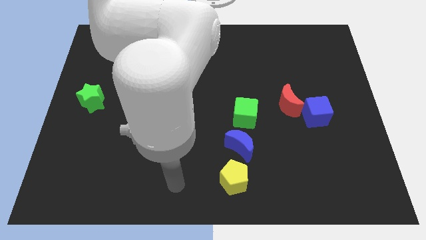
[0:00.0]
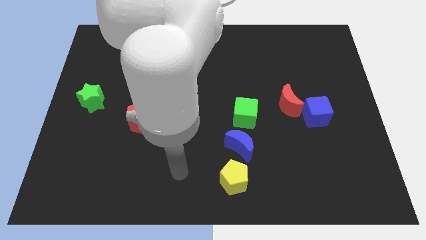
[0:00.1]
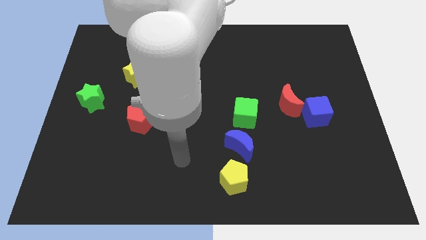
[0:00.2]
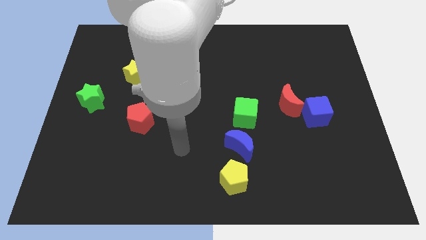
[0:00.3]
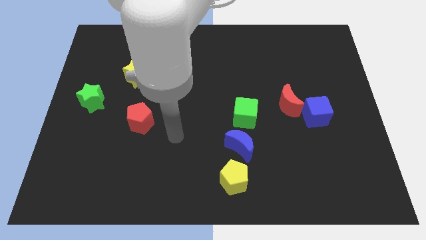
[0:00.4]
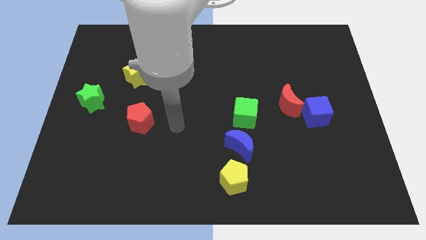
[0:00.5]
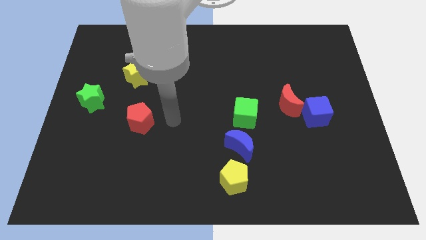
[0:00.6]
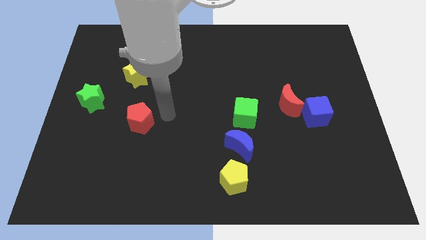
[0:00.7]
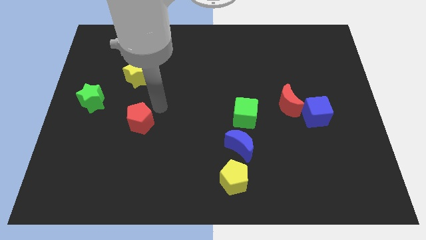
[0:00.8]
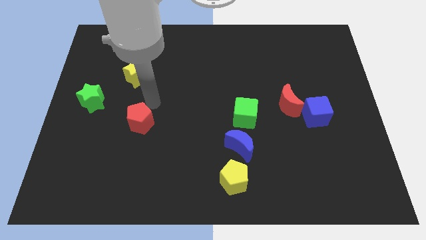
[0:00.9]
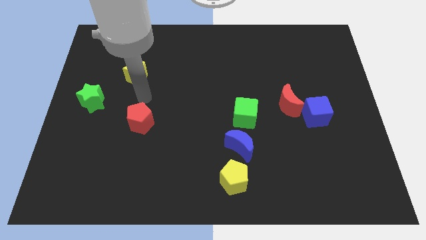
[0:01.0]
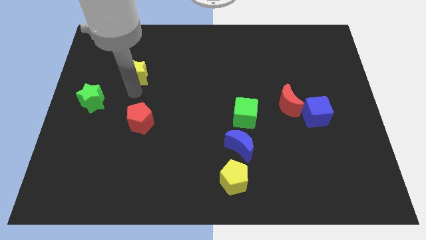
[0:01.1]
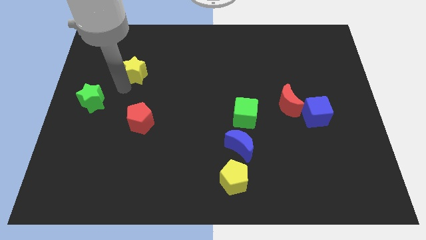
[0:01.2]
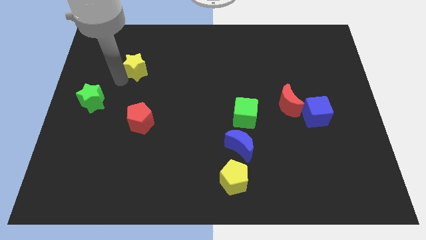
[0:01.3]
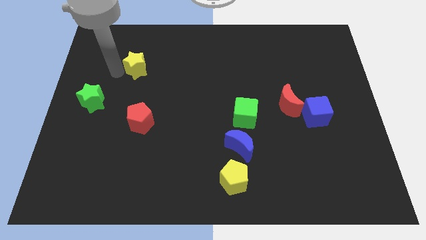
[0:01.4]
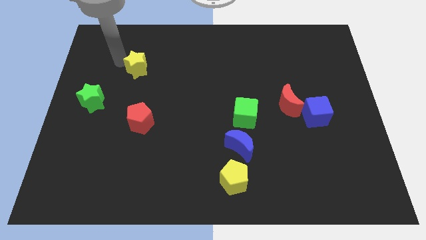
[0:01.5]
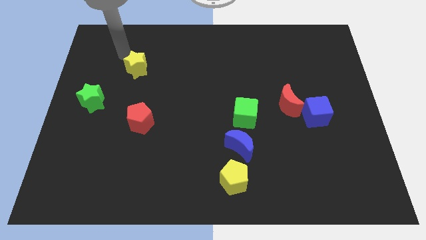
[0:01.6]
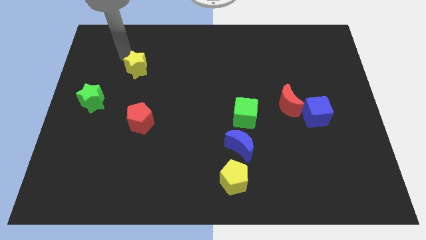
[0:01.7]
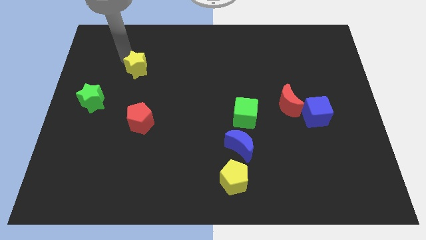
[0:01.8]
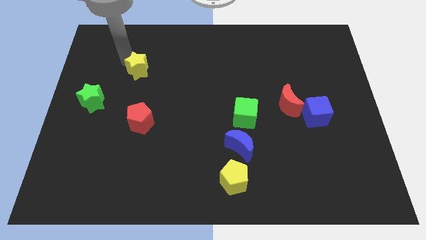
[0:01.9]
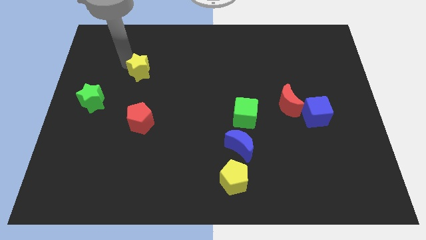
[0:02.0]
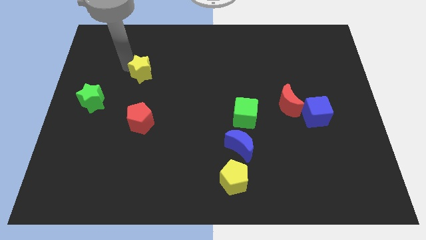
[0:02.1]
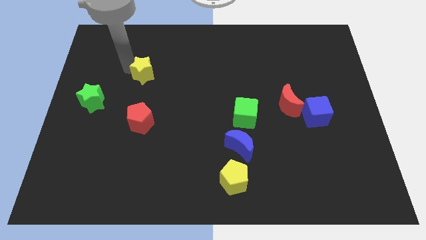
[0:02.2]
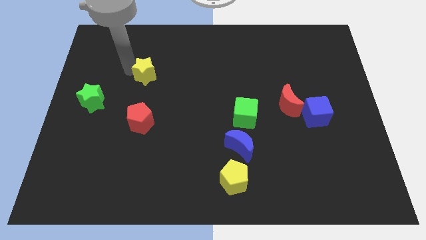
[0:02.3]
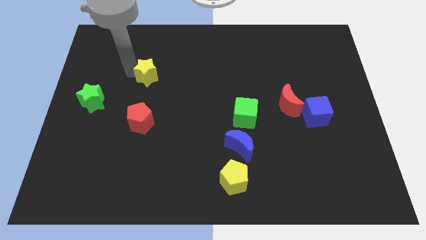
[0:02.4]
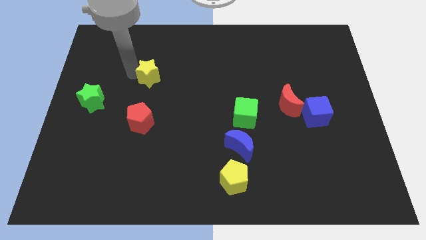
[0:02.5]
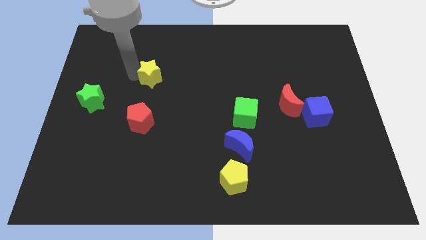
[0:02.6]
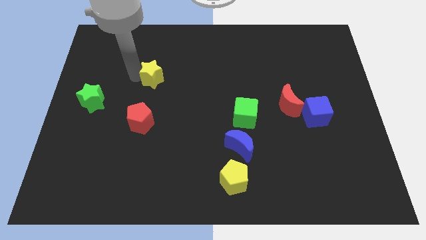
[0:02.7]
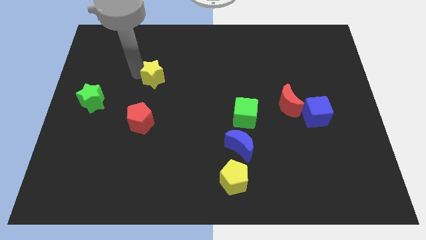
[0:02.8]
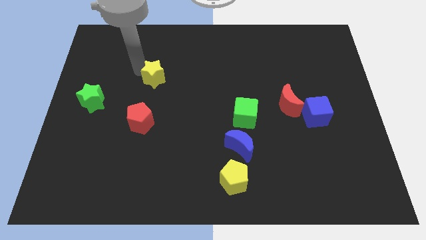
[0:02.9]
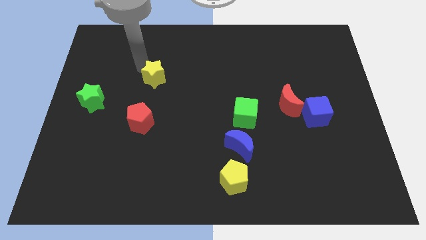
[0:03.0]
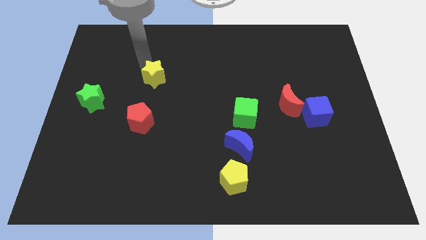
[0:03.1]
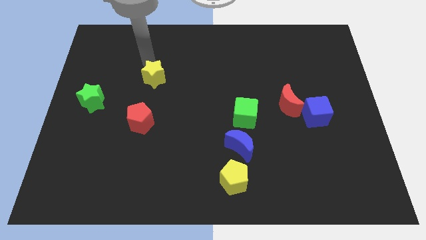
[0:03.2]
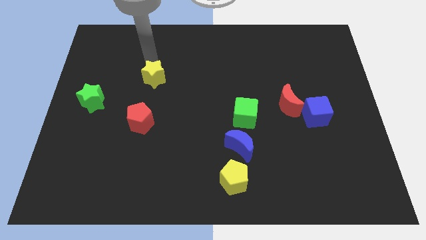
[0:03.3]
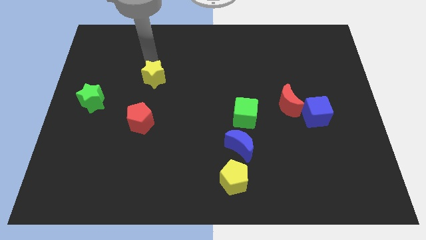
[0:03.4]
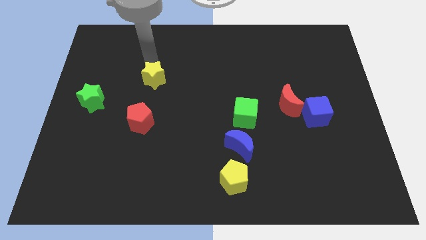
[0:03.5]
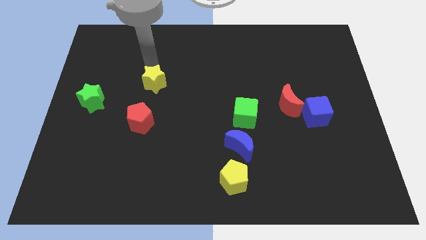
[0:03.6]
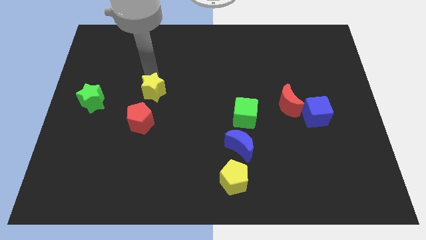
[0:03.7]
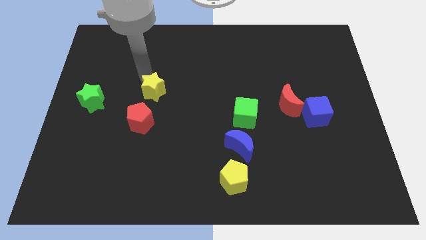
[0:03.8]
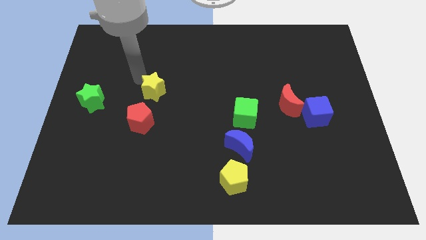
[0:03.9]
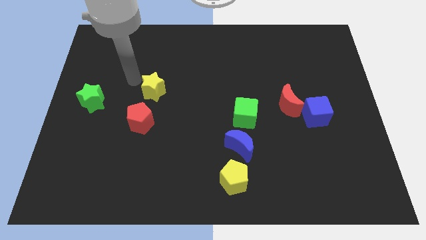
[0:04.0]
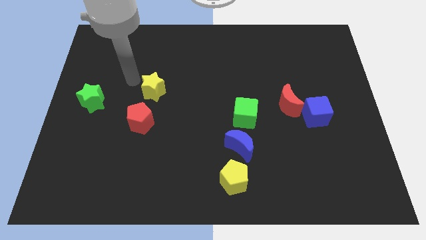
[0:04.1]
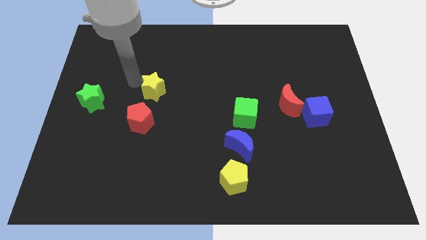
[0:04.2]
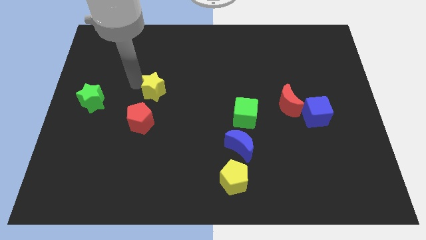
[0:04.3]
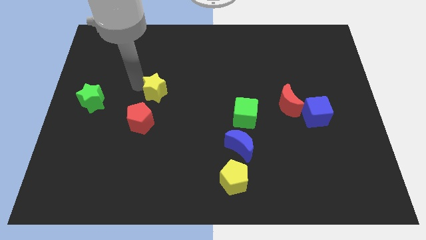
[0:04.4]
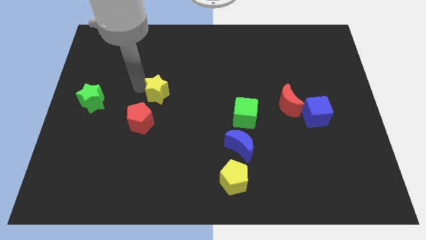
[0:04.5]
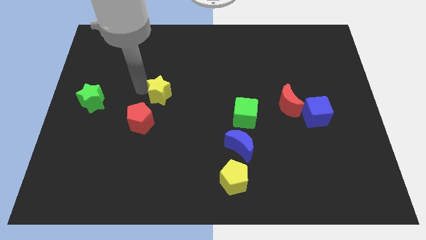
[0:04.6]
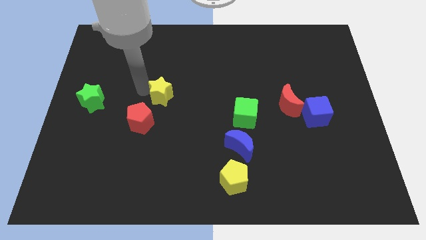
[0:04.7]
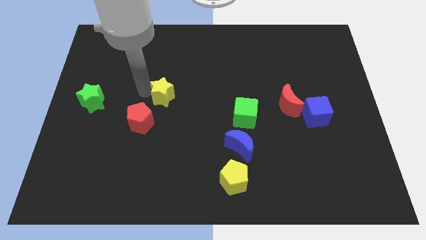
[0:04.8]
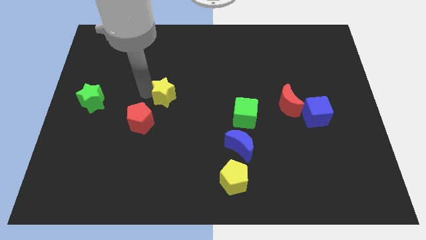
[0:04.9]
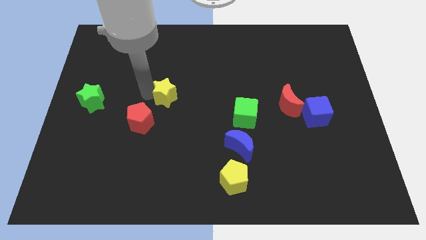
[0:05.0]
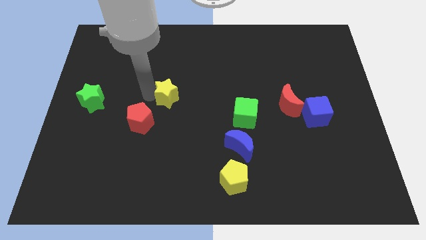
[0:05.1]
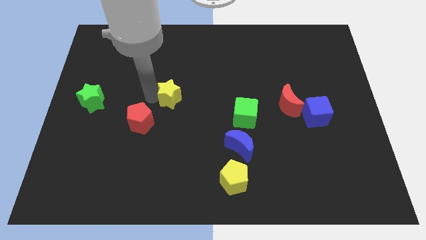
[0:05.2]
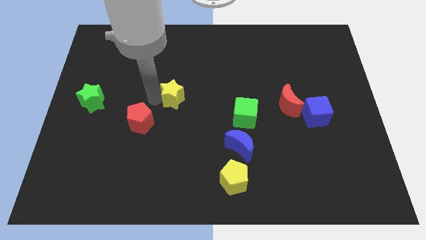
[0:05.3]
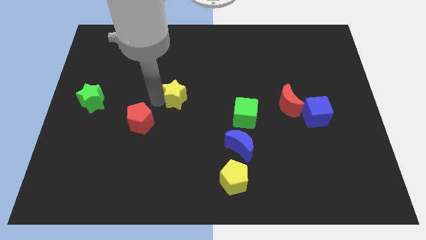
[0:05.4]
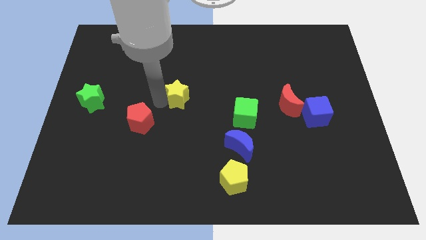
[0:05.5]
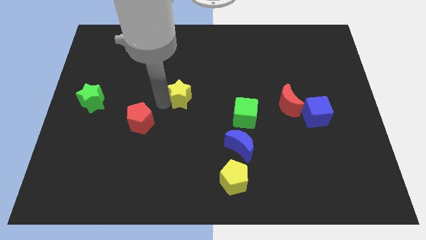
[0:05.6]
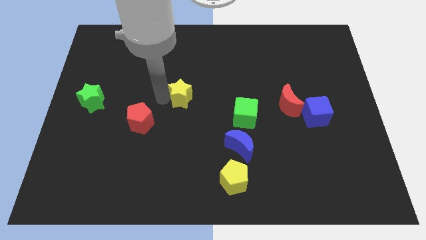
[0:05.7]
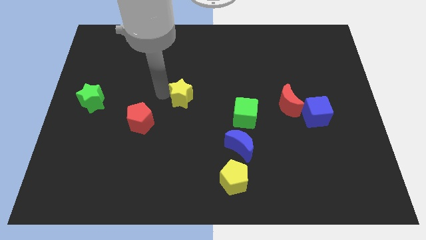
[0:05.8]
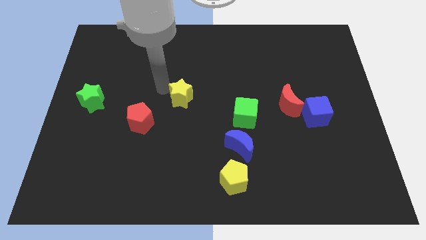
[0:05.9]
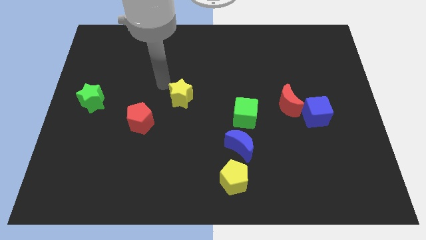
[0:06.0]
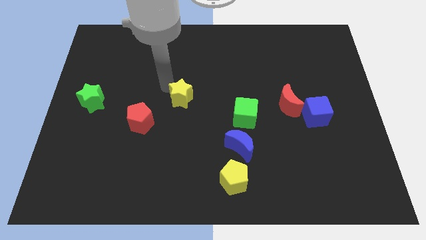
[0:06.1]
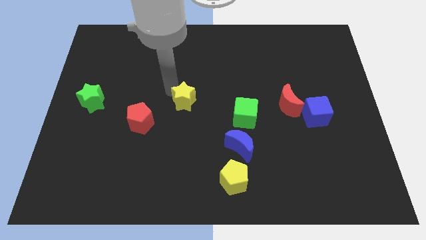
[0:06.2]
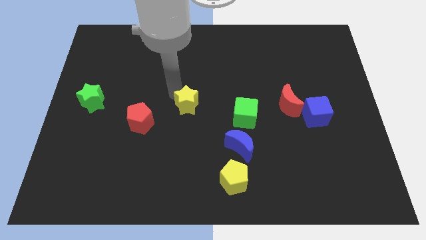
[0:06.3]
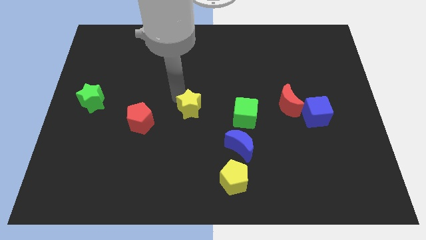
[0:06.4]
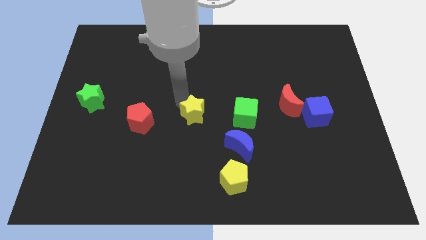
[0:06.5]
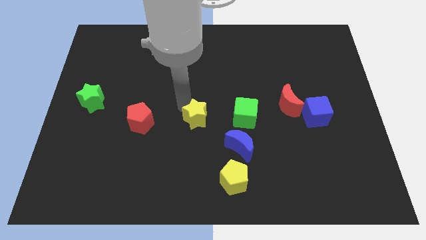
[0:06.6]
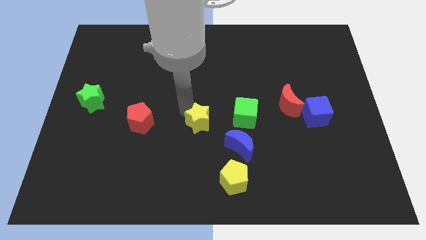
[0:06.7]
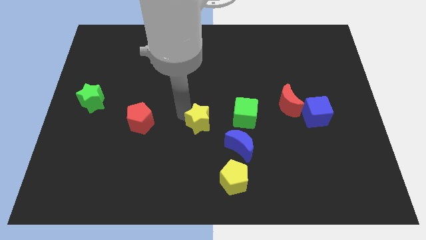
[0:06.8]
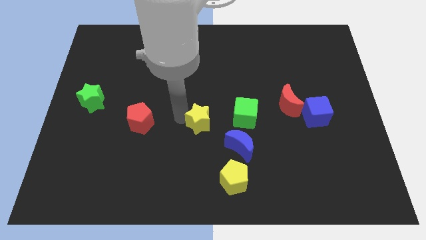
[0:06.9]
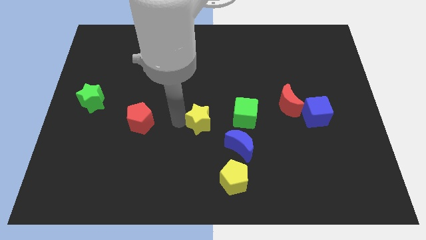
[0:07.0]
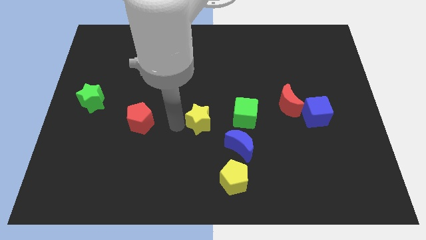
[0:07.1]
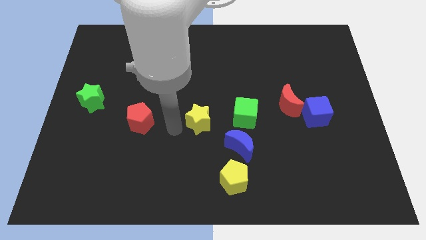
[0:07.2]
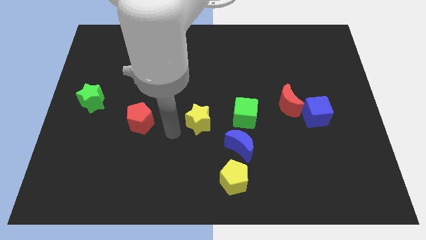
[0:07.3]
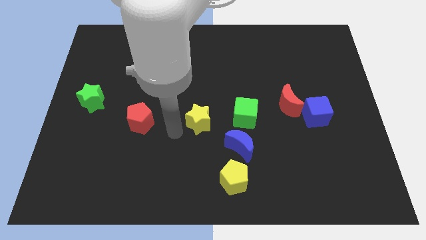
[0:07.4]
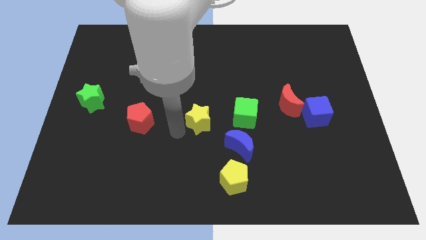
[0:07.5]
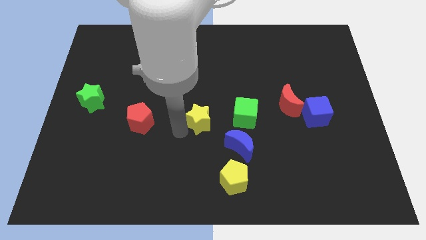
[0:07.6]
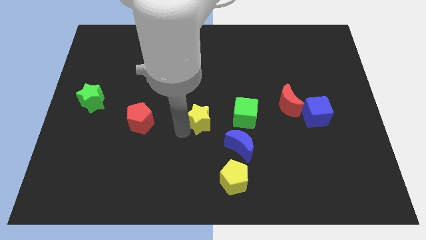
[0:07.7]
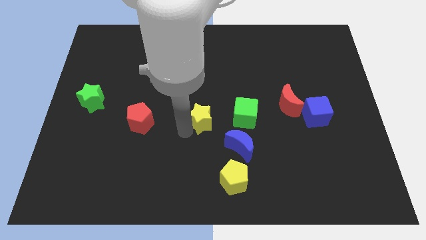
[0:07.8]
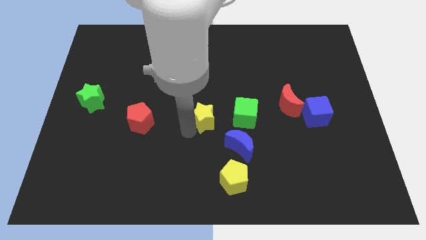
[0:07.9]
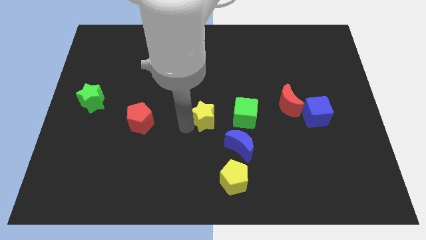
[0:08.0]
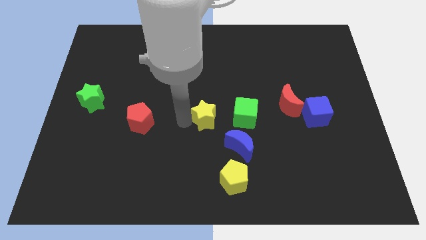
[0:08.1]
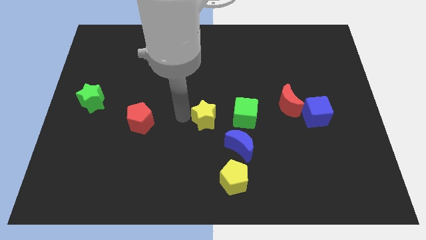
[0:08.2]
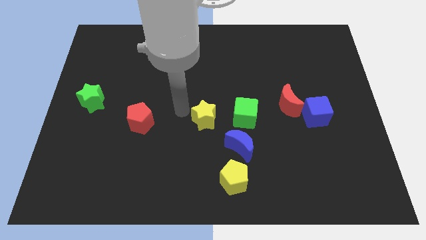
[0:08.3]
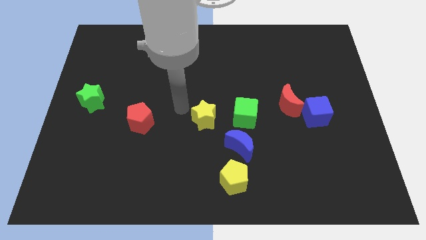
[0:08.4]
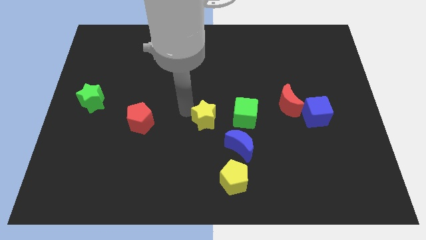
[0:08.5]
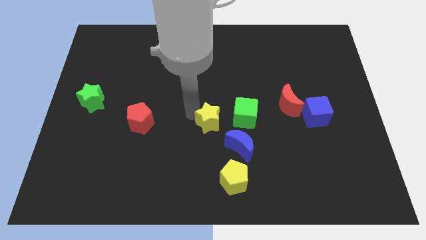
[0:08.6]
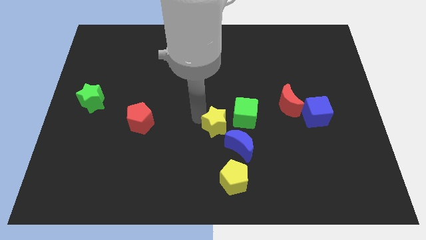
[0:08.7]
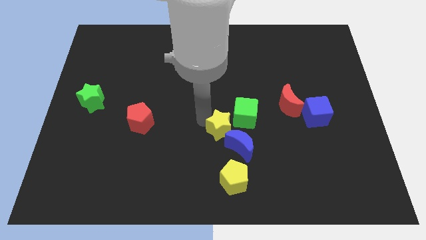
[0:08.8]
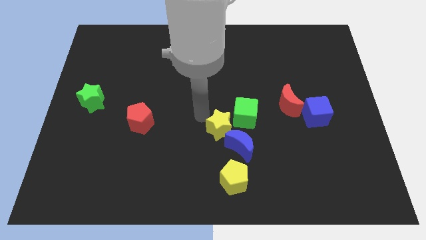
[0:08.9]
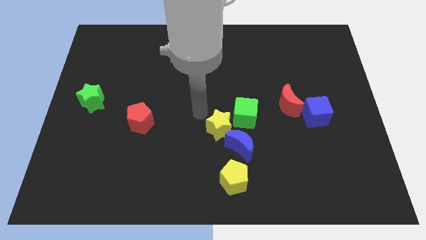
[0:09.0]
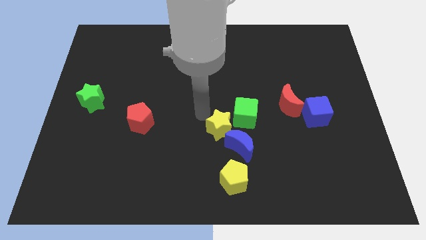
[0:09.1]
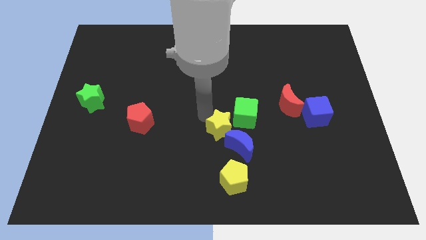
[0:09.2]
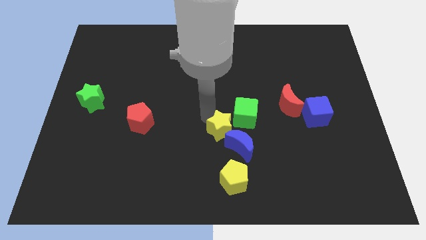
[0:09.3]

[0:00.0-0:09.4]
move the yellow star next to the blue moon
